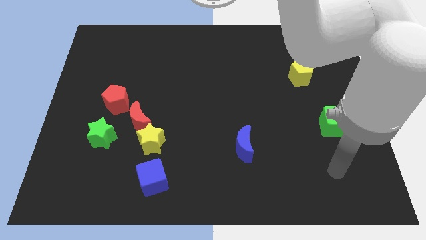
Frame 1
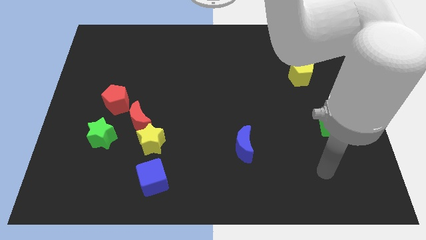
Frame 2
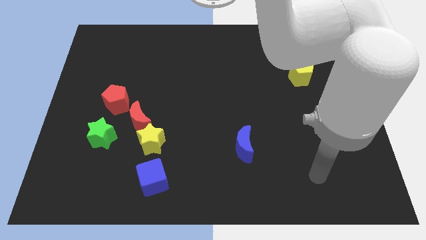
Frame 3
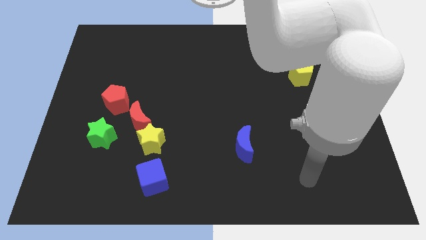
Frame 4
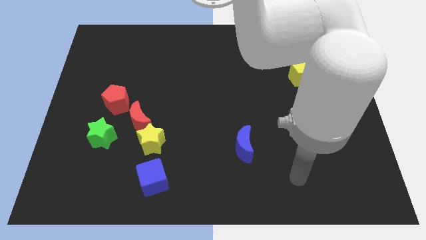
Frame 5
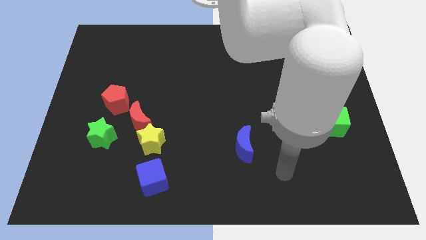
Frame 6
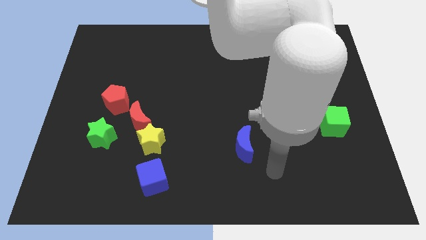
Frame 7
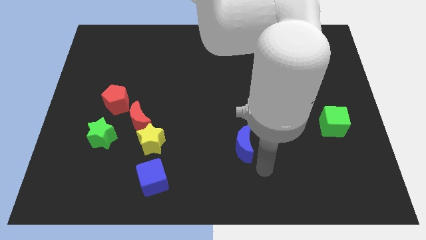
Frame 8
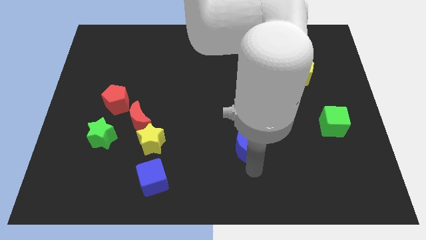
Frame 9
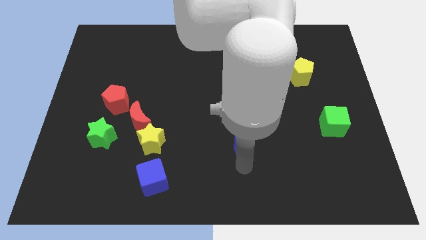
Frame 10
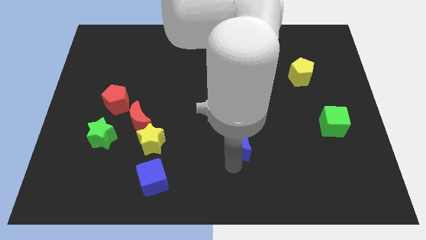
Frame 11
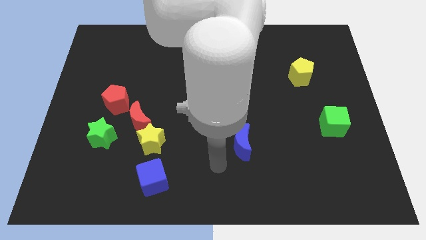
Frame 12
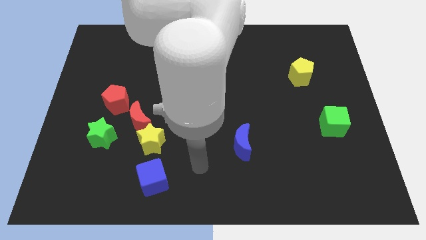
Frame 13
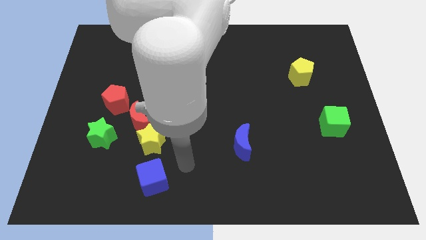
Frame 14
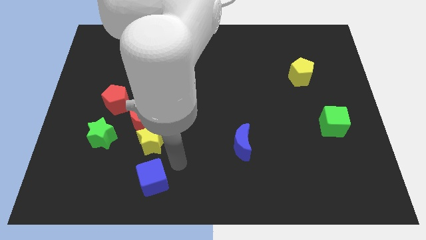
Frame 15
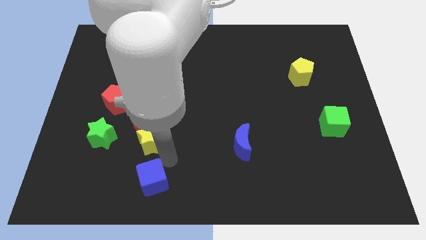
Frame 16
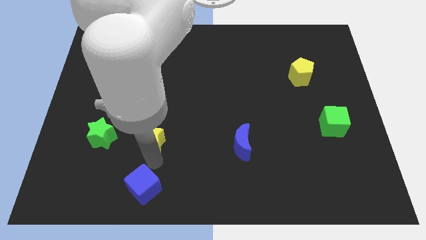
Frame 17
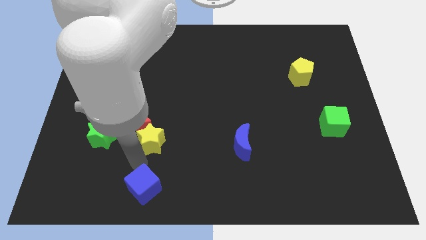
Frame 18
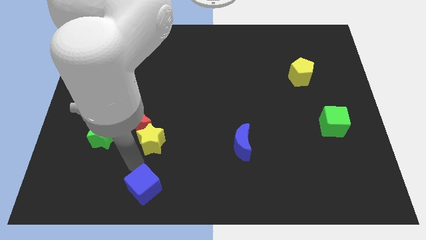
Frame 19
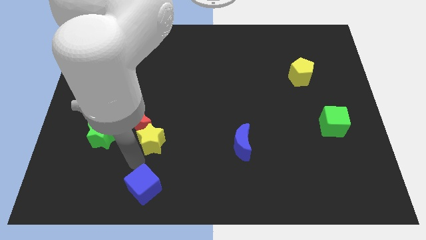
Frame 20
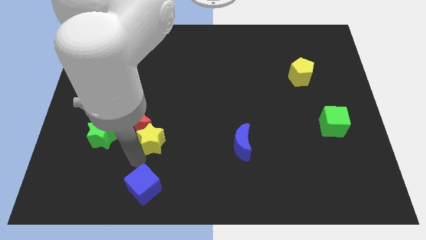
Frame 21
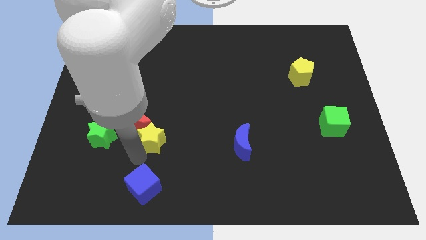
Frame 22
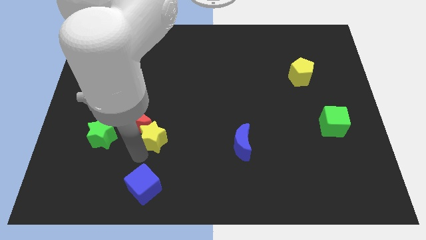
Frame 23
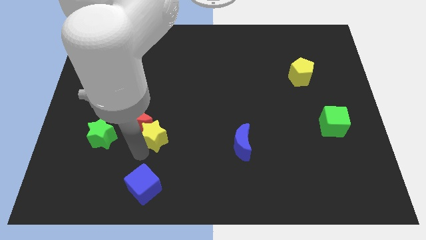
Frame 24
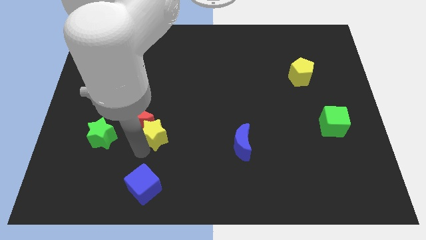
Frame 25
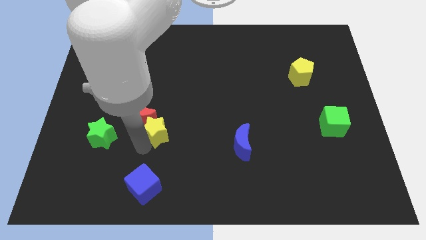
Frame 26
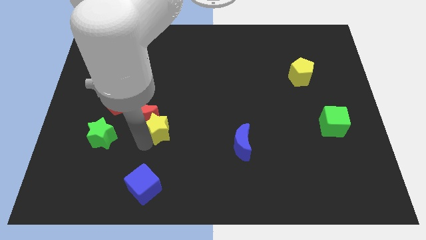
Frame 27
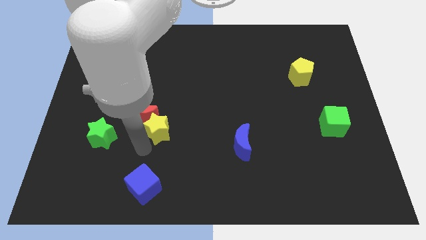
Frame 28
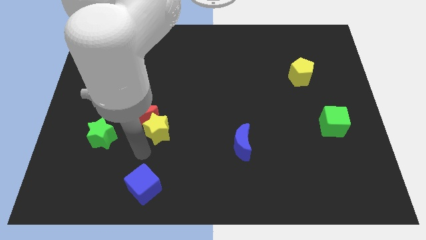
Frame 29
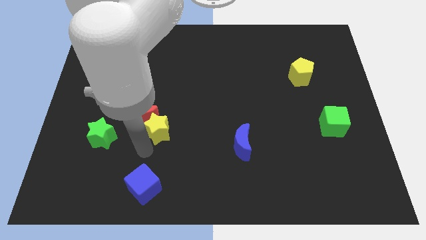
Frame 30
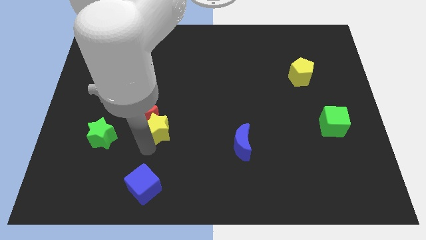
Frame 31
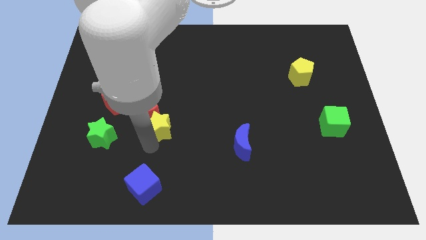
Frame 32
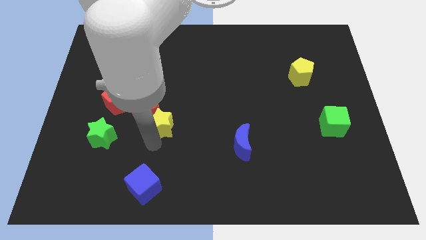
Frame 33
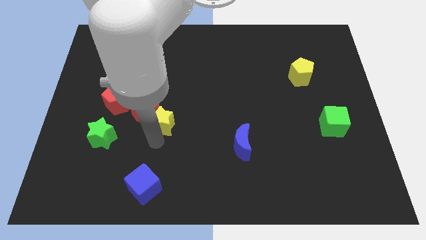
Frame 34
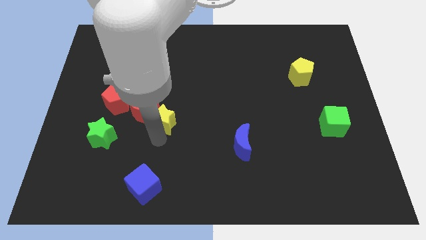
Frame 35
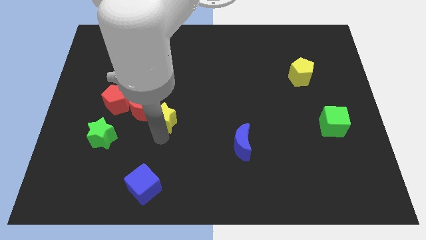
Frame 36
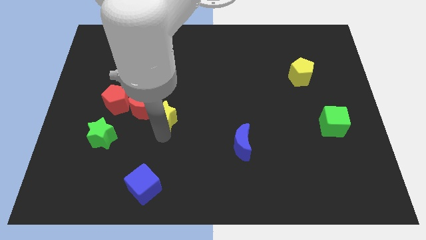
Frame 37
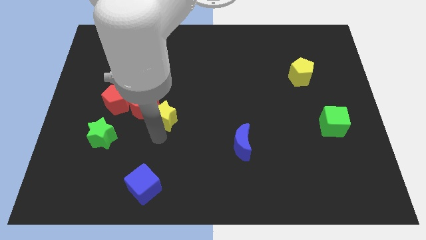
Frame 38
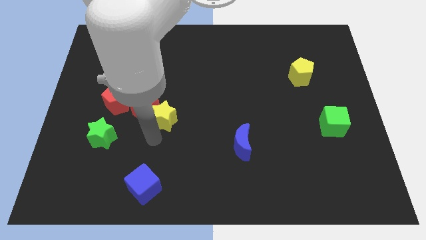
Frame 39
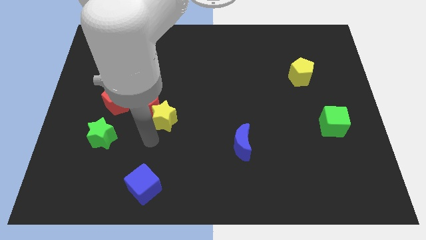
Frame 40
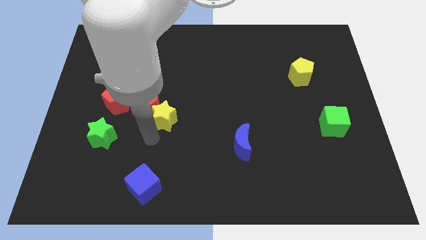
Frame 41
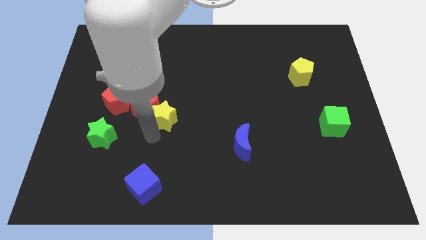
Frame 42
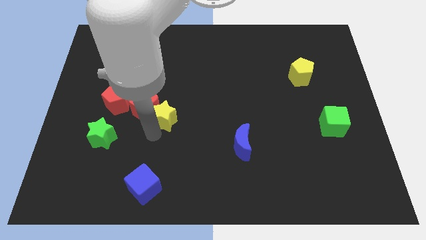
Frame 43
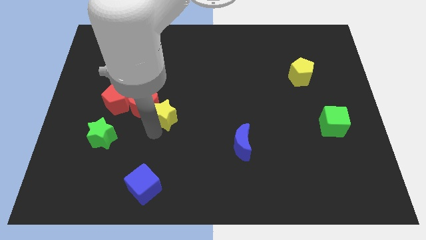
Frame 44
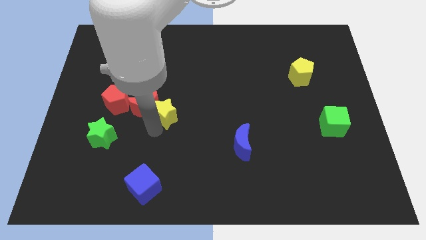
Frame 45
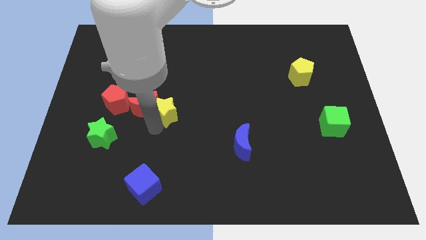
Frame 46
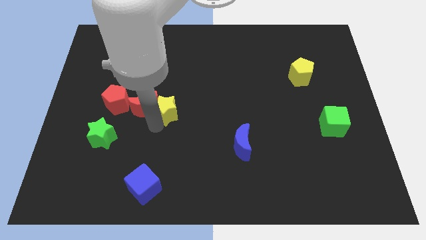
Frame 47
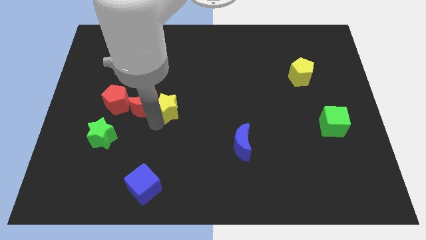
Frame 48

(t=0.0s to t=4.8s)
pull the yellow star apart from the red moon and blue cube

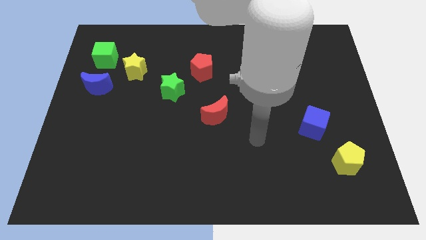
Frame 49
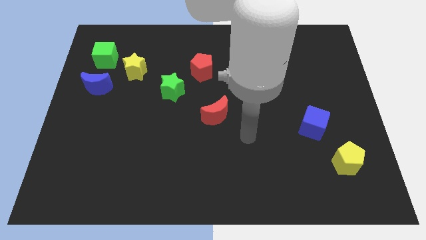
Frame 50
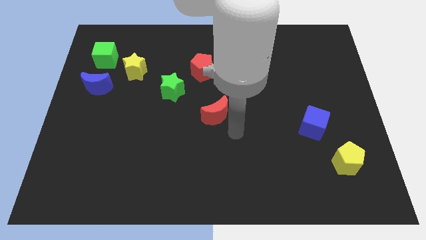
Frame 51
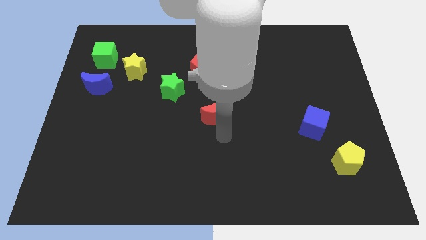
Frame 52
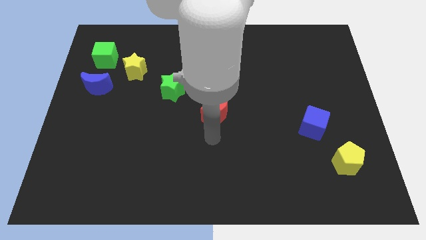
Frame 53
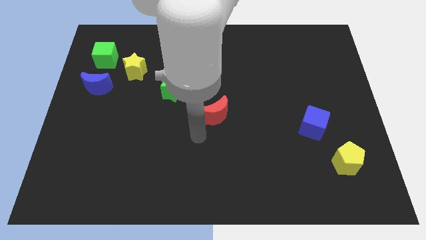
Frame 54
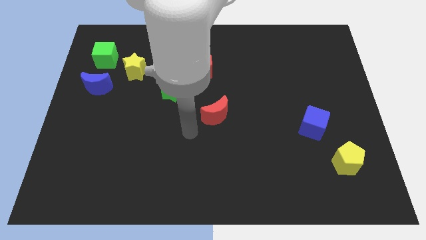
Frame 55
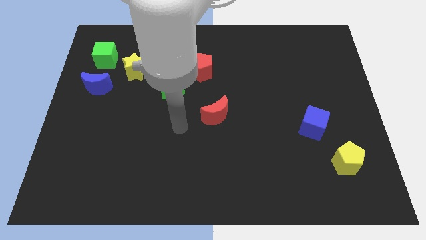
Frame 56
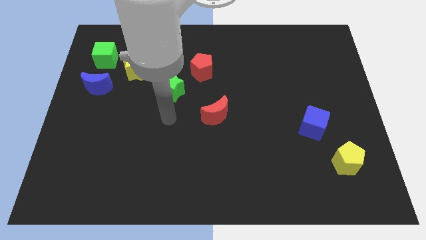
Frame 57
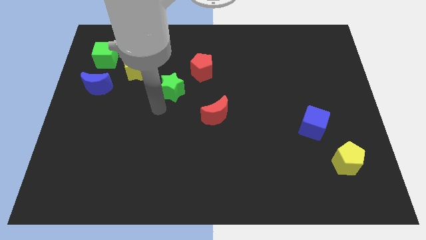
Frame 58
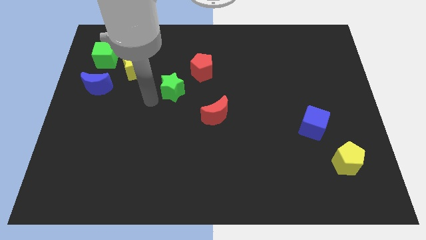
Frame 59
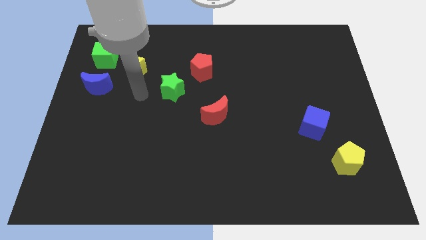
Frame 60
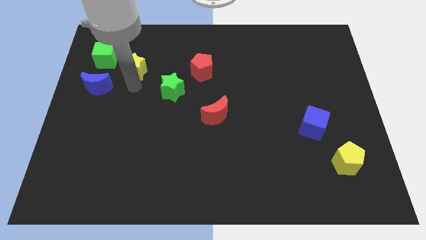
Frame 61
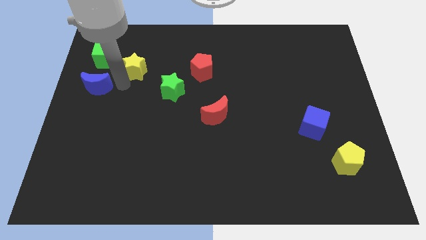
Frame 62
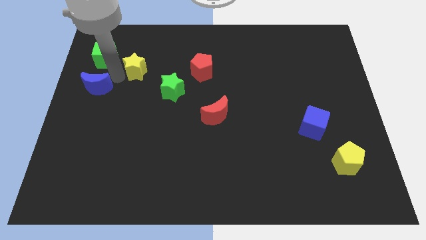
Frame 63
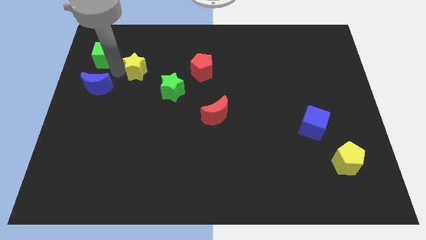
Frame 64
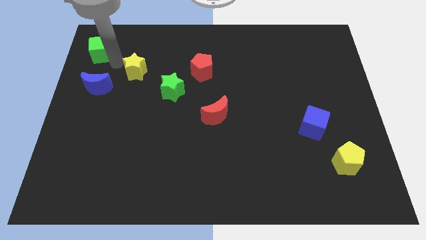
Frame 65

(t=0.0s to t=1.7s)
separate the yellow star from the green cube

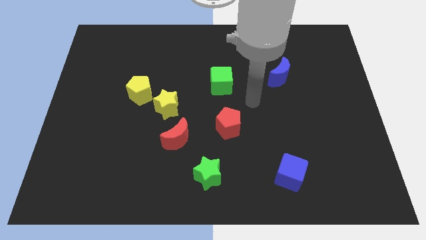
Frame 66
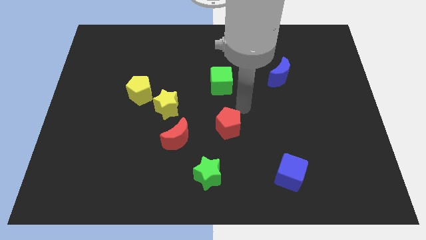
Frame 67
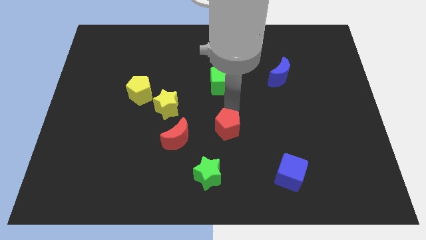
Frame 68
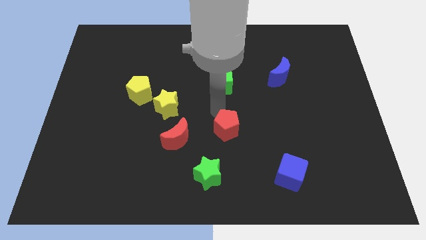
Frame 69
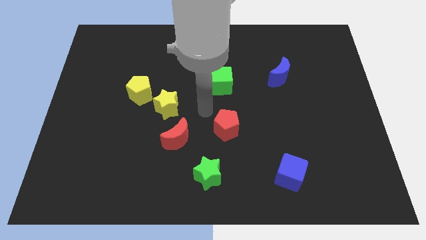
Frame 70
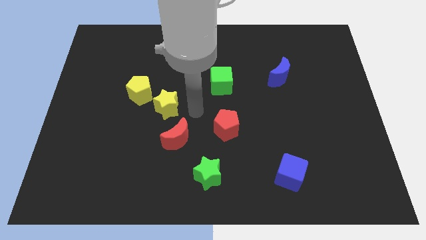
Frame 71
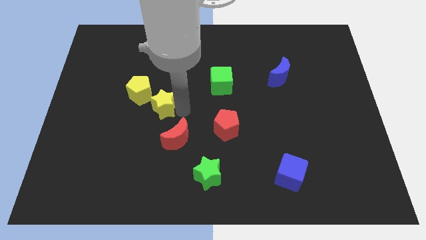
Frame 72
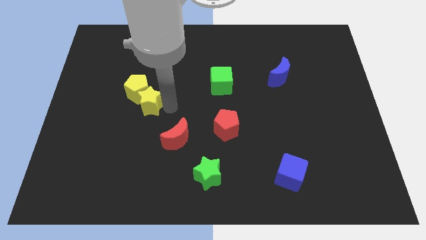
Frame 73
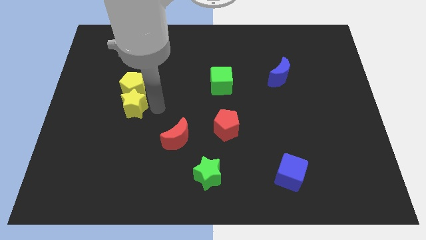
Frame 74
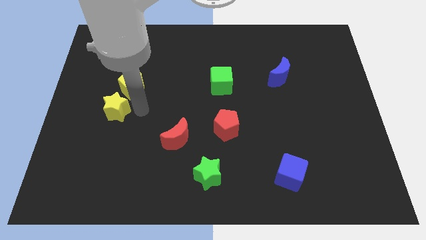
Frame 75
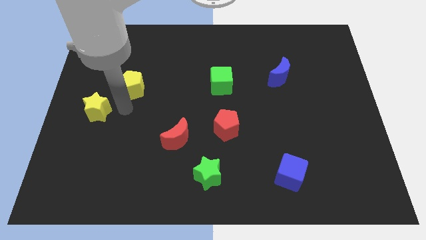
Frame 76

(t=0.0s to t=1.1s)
pull the yellow pentagon apart from the yellow star

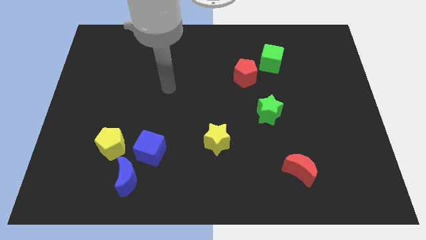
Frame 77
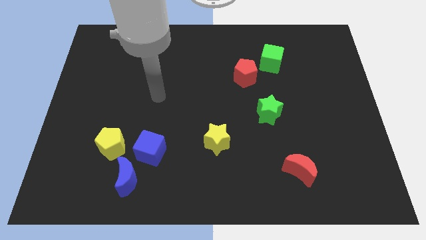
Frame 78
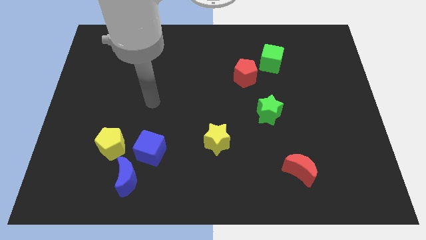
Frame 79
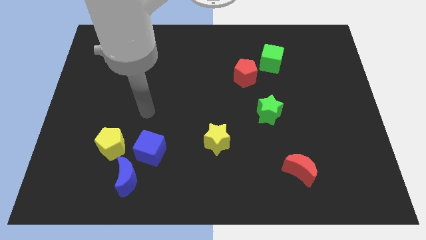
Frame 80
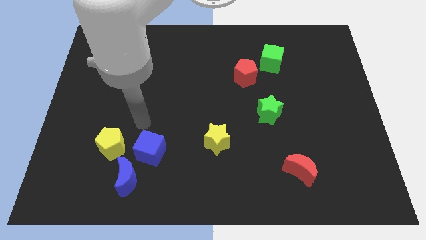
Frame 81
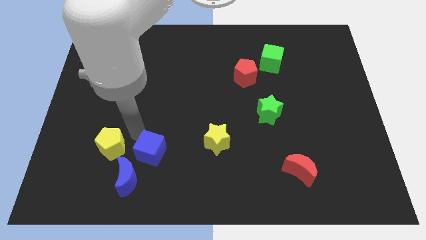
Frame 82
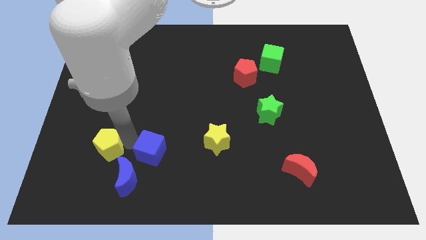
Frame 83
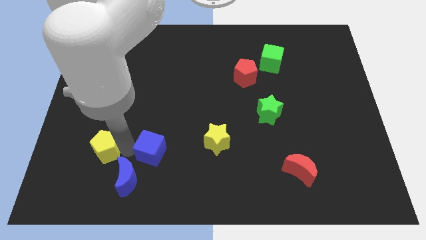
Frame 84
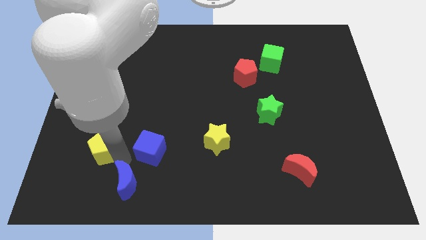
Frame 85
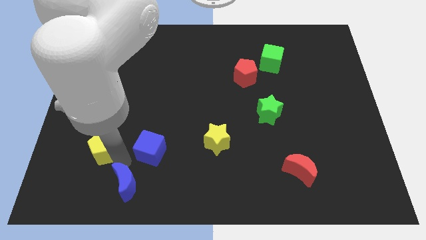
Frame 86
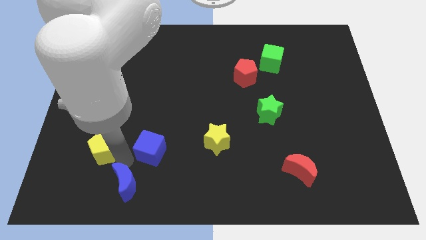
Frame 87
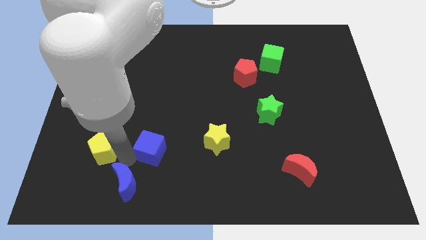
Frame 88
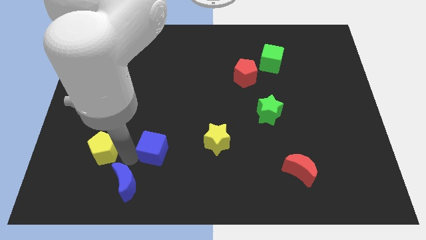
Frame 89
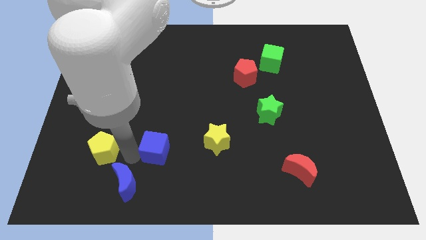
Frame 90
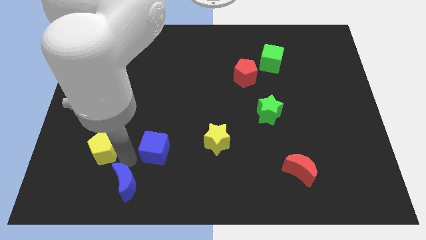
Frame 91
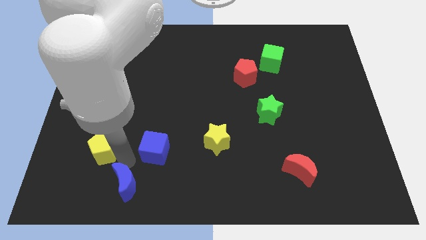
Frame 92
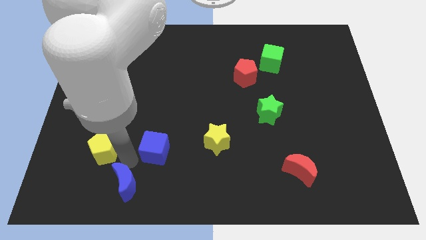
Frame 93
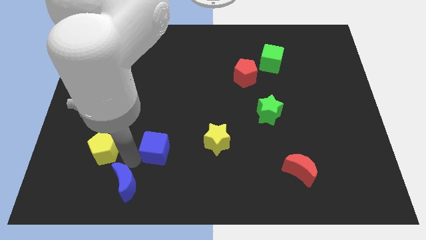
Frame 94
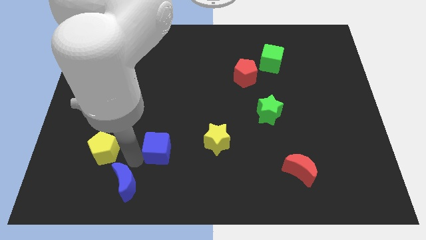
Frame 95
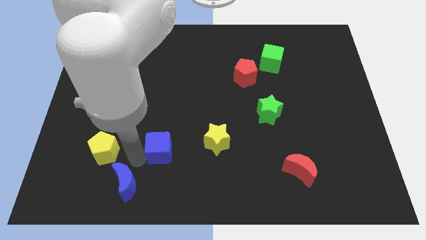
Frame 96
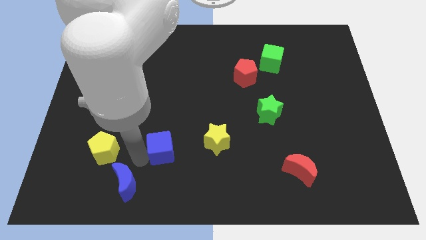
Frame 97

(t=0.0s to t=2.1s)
pull the blue cube apart from the blue moon and yellow pentagon
